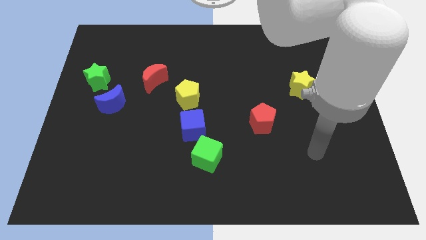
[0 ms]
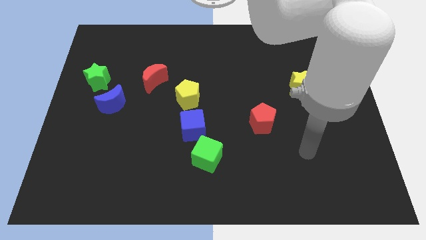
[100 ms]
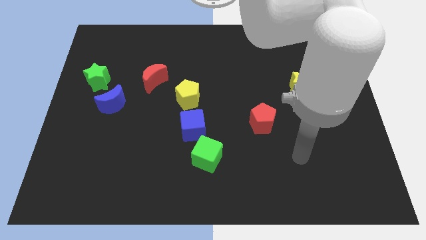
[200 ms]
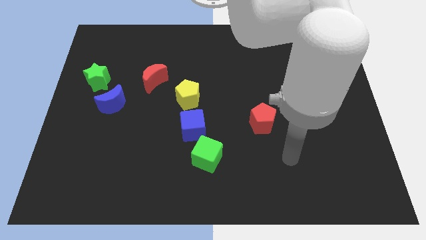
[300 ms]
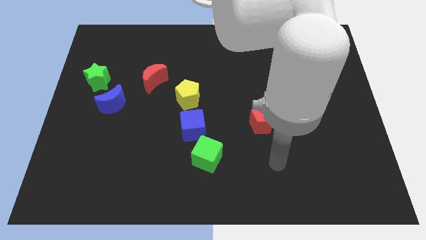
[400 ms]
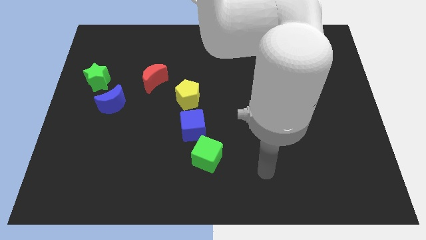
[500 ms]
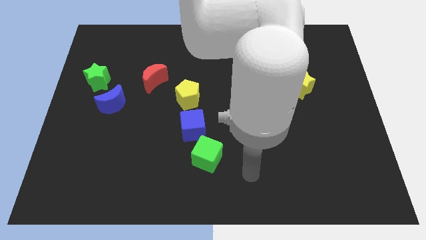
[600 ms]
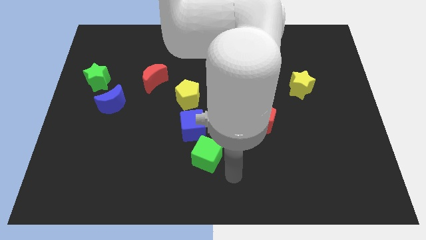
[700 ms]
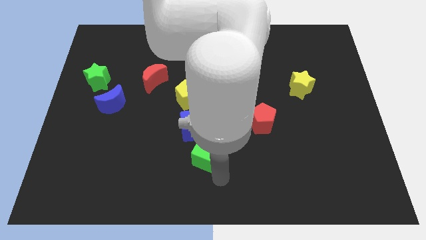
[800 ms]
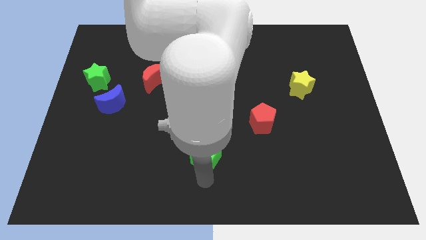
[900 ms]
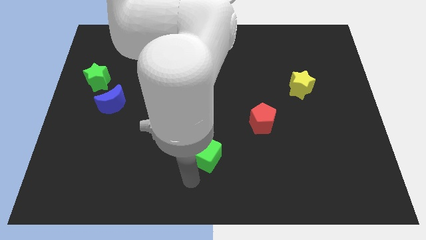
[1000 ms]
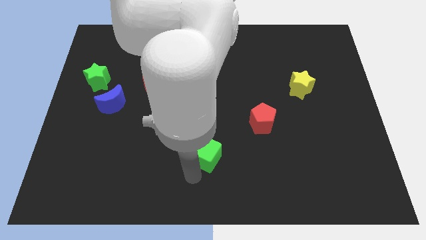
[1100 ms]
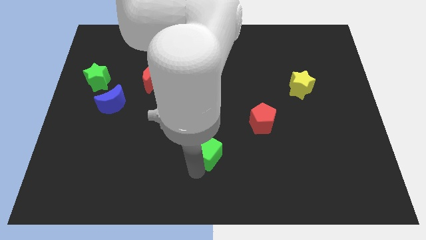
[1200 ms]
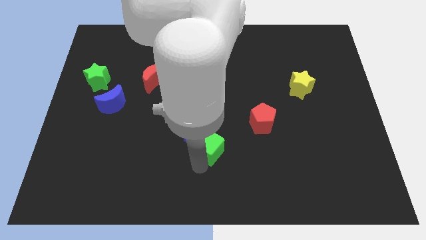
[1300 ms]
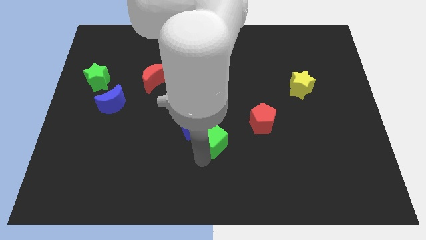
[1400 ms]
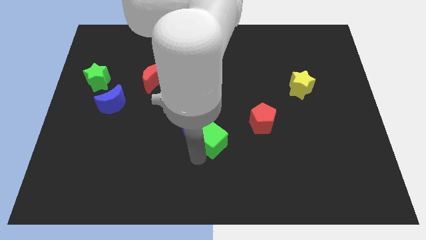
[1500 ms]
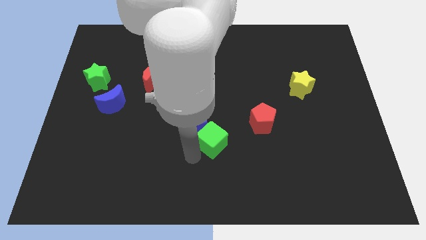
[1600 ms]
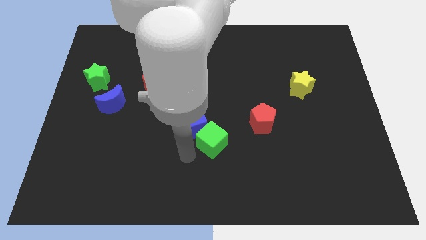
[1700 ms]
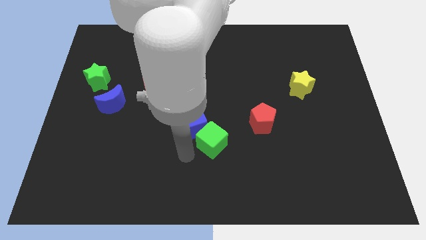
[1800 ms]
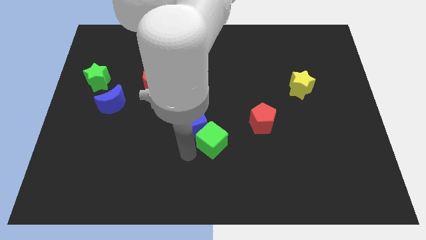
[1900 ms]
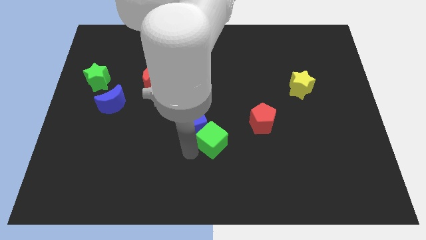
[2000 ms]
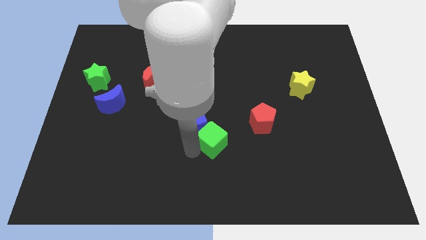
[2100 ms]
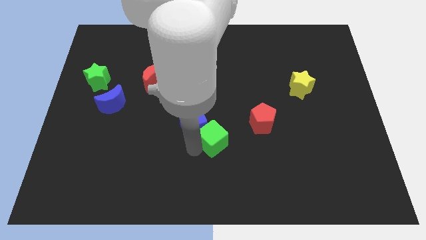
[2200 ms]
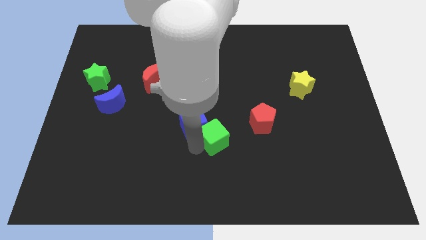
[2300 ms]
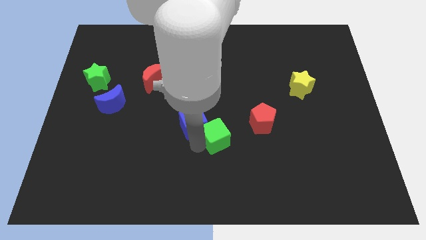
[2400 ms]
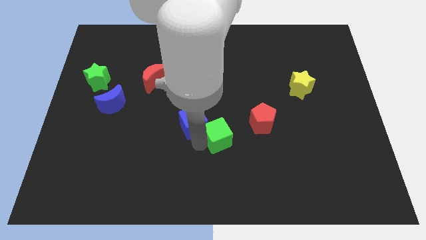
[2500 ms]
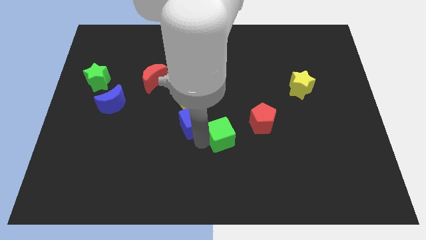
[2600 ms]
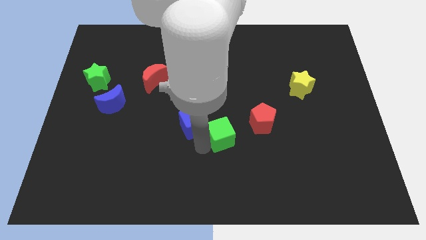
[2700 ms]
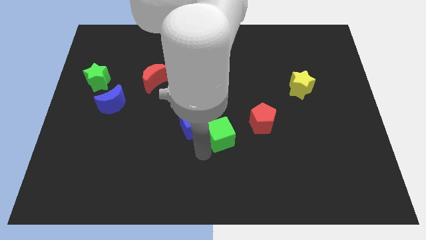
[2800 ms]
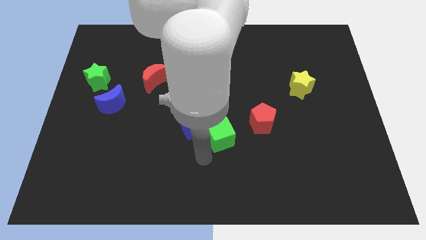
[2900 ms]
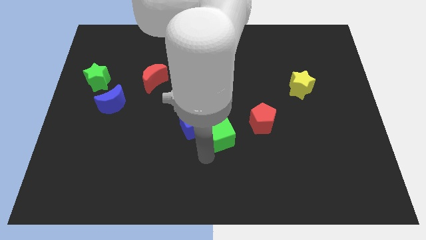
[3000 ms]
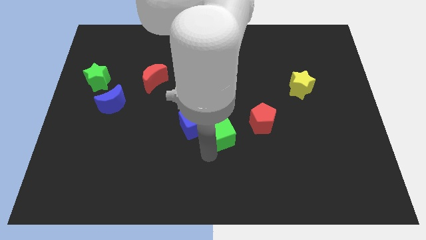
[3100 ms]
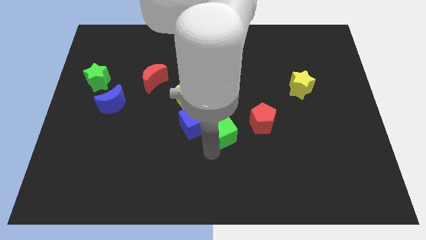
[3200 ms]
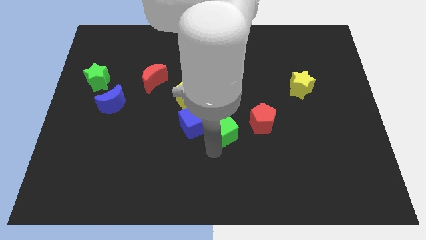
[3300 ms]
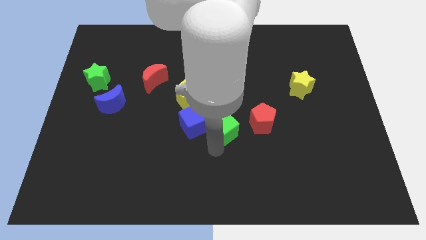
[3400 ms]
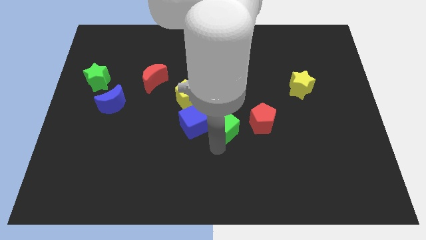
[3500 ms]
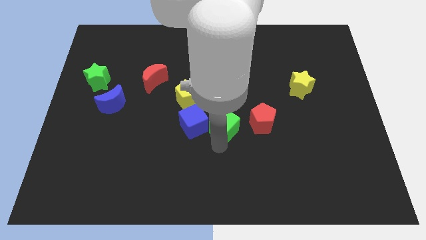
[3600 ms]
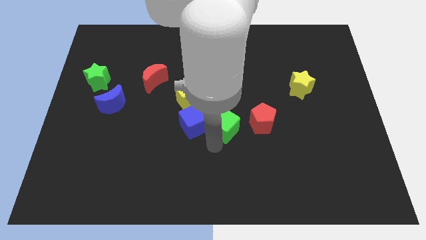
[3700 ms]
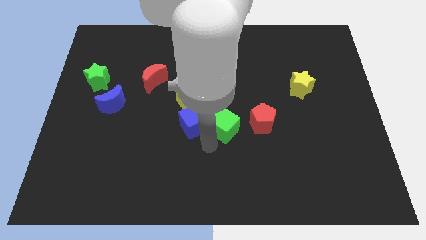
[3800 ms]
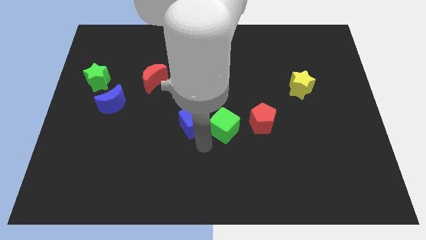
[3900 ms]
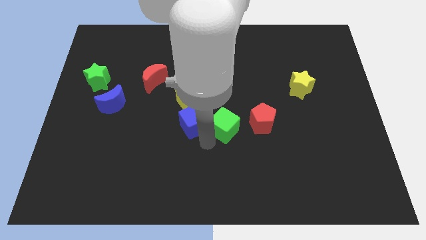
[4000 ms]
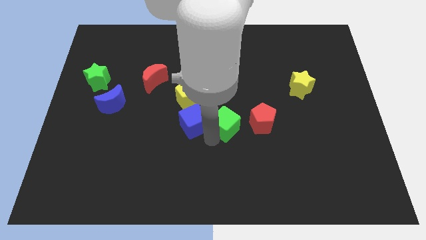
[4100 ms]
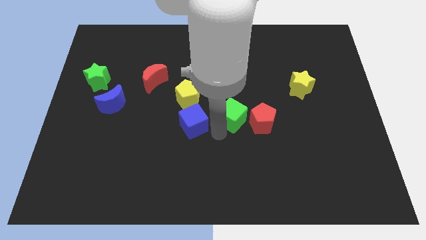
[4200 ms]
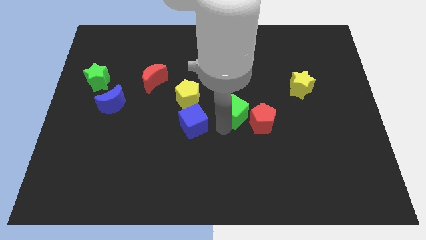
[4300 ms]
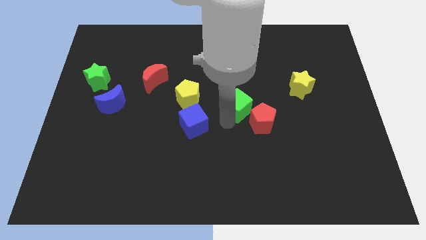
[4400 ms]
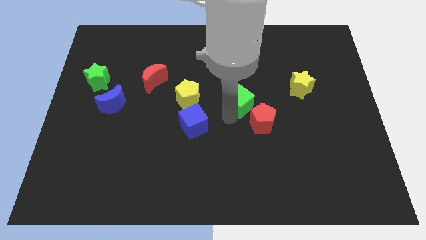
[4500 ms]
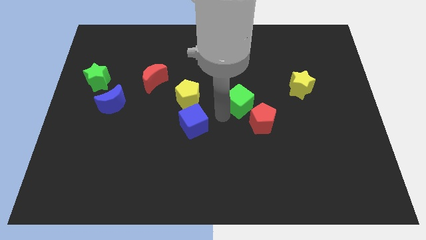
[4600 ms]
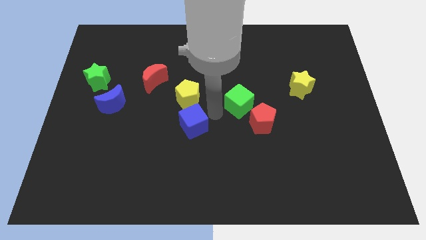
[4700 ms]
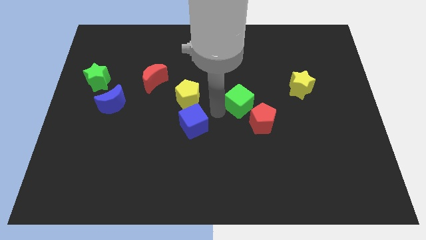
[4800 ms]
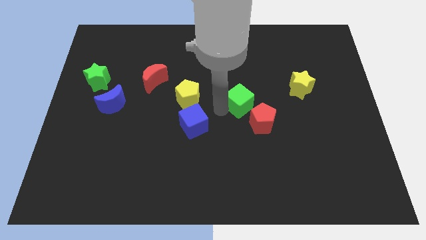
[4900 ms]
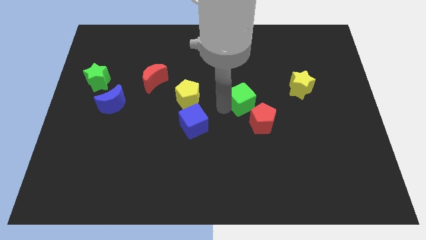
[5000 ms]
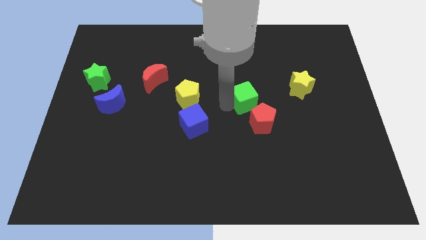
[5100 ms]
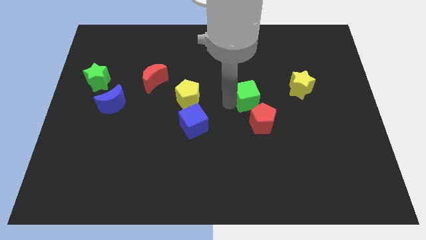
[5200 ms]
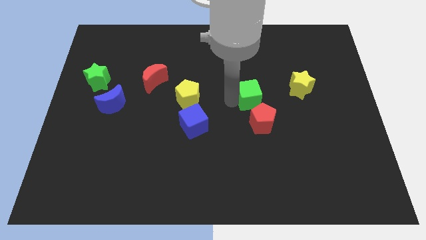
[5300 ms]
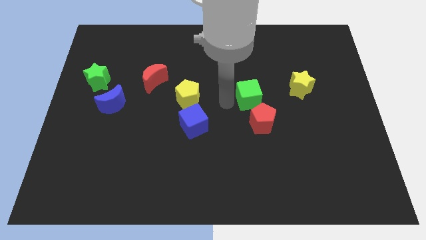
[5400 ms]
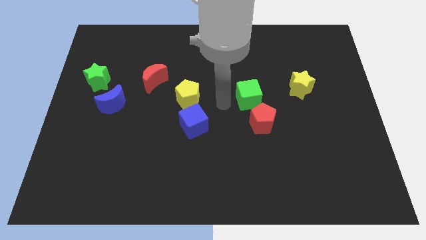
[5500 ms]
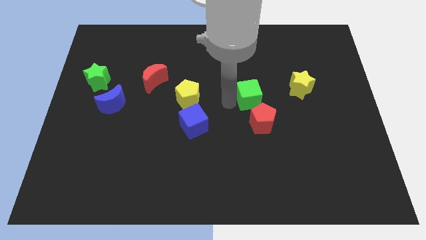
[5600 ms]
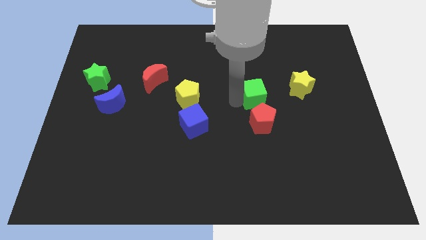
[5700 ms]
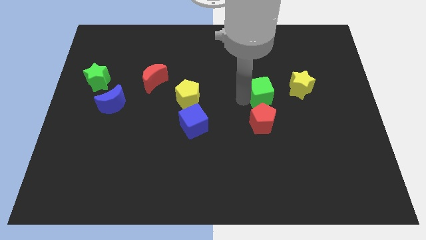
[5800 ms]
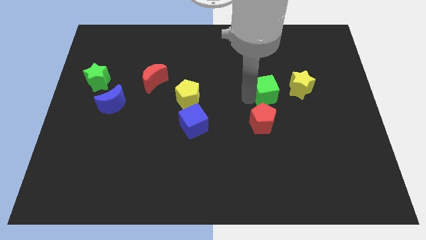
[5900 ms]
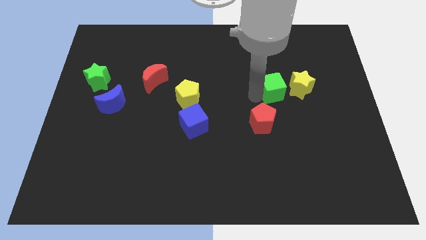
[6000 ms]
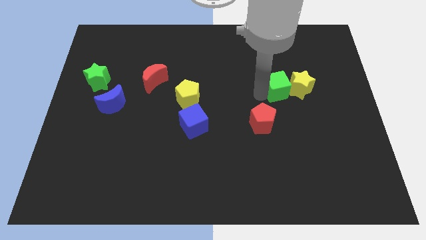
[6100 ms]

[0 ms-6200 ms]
move the green cube close to the yellow star
